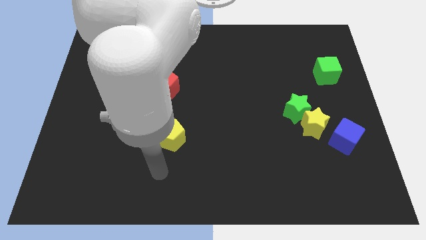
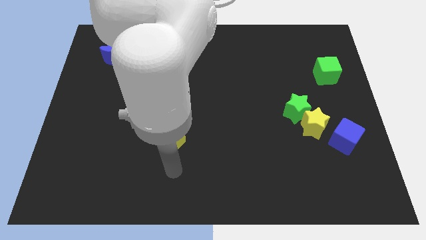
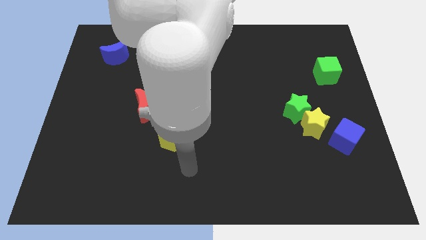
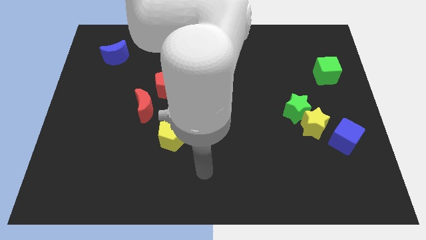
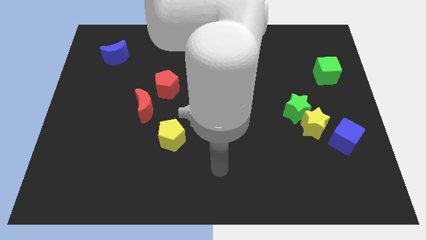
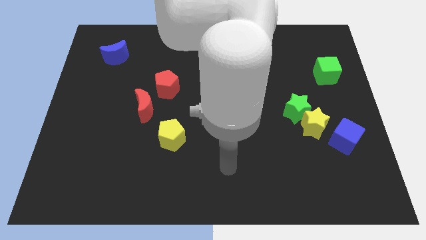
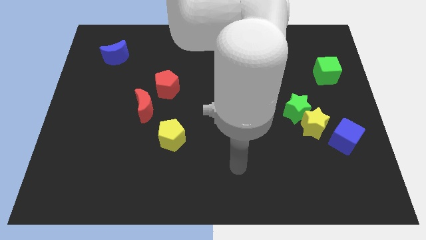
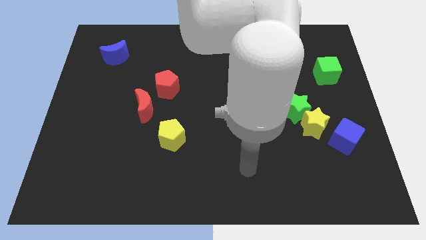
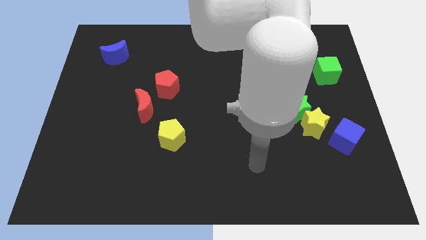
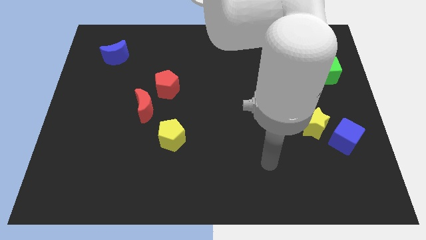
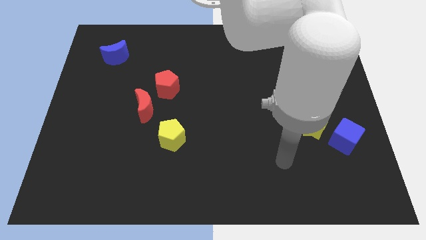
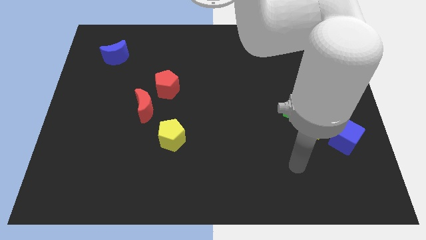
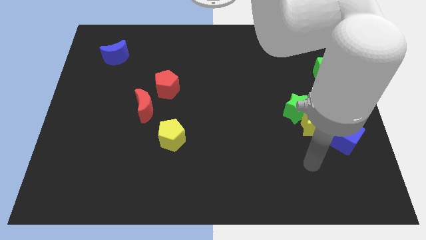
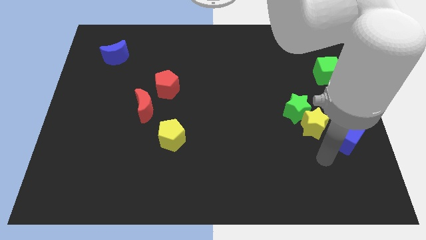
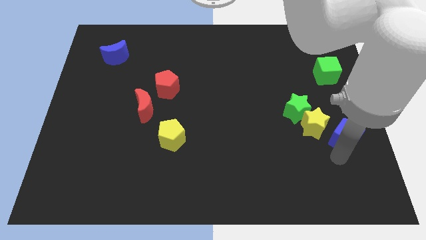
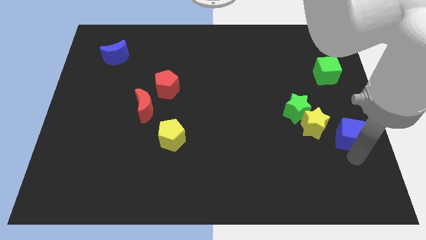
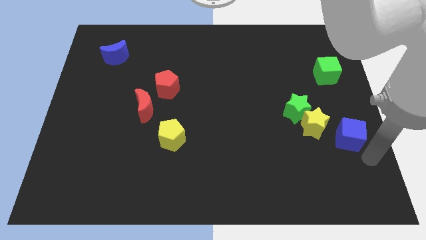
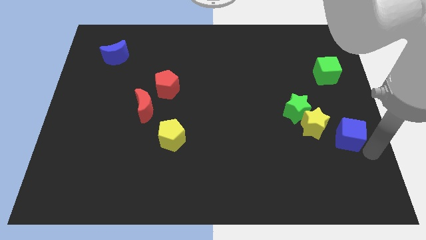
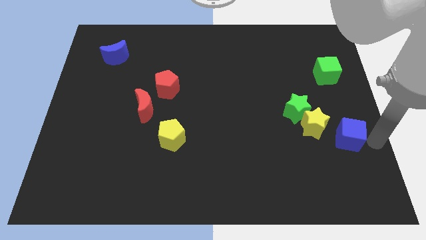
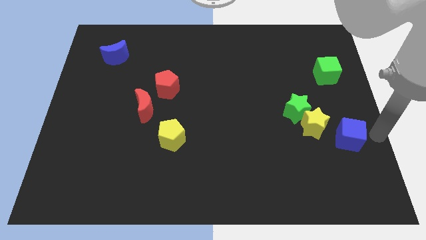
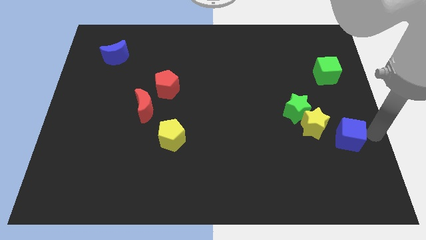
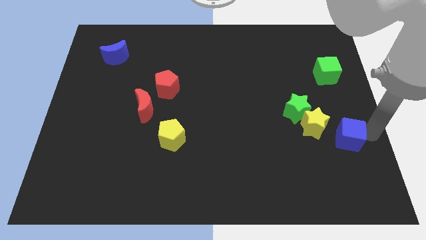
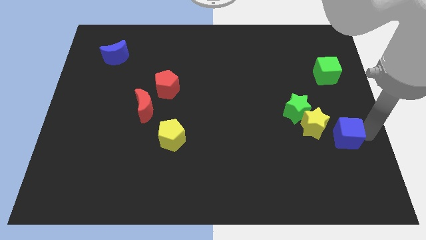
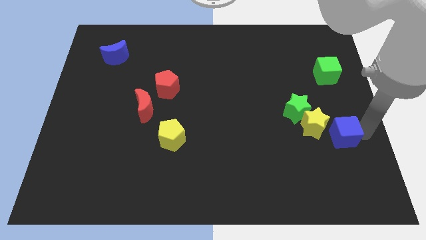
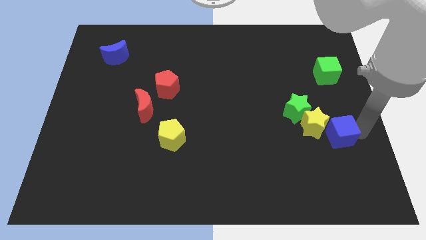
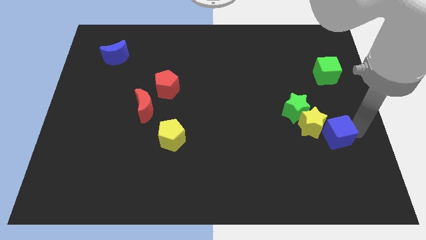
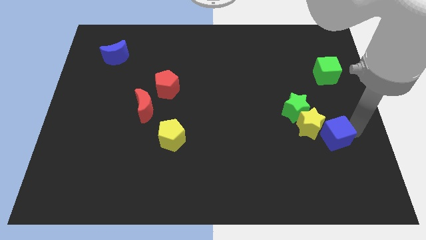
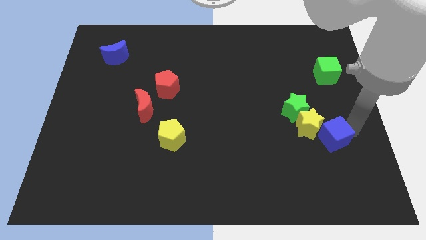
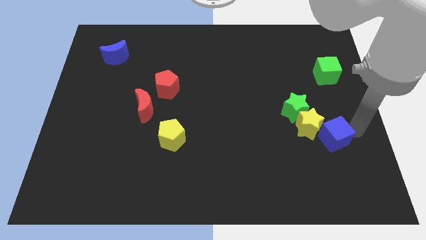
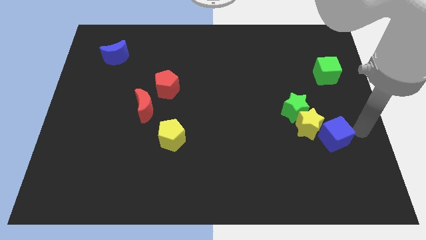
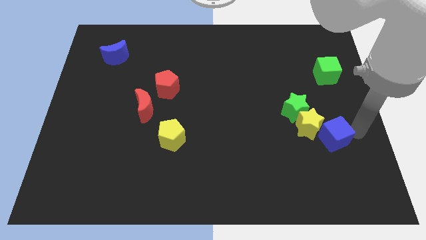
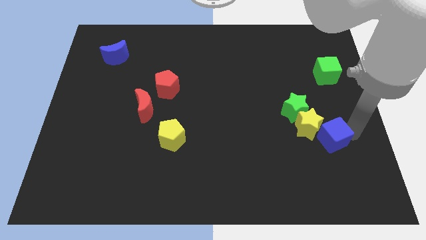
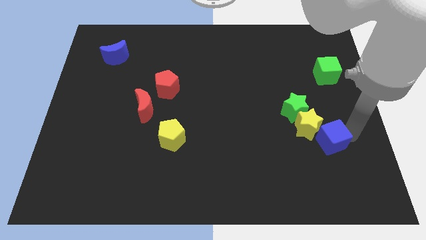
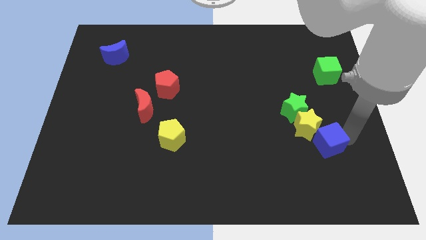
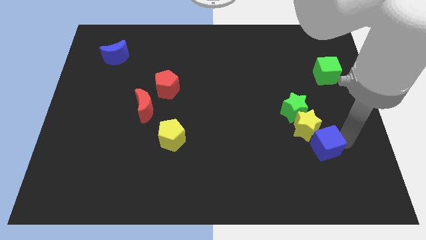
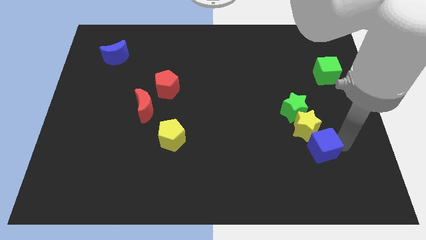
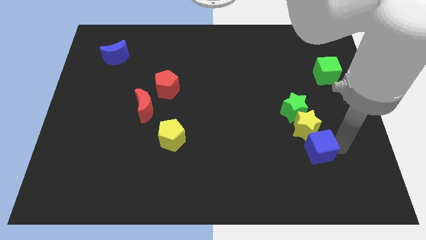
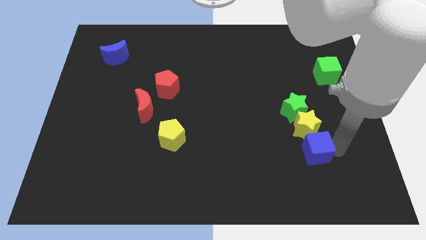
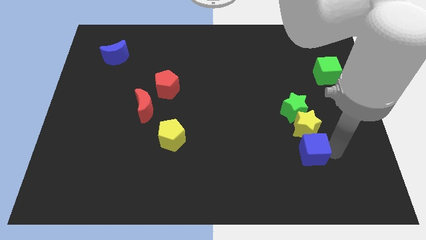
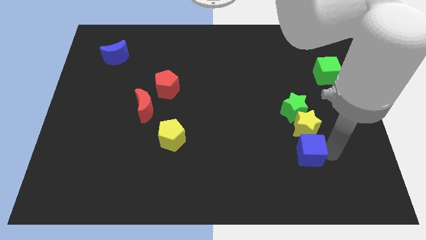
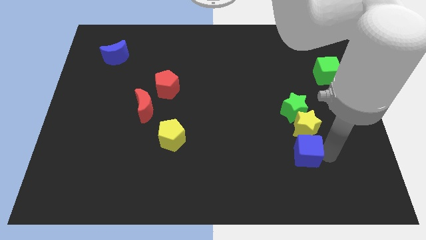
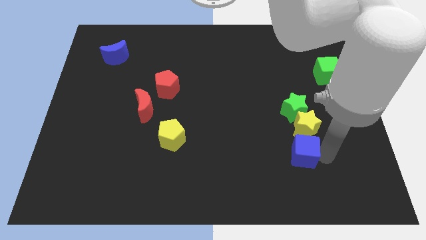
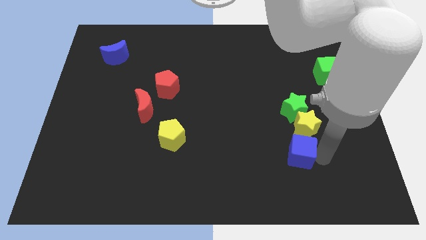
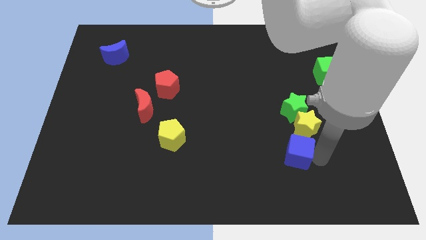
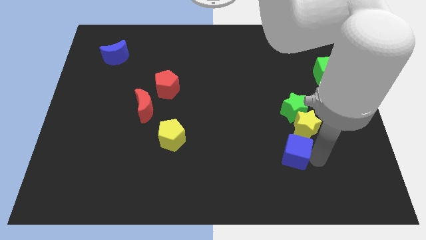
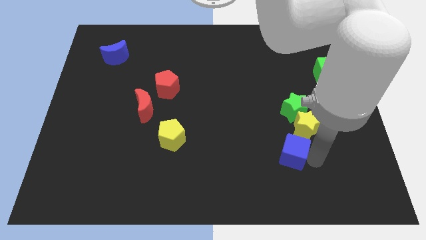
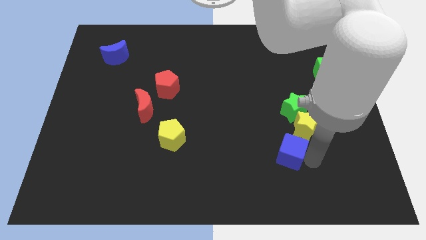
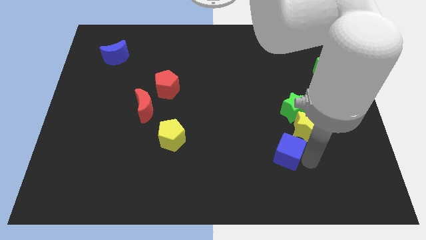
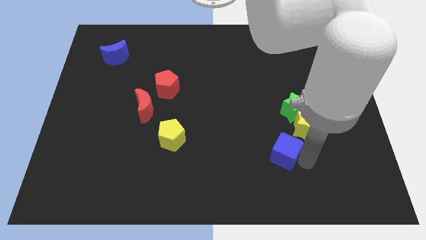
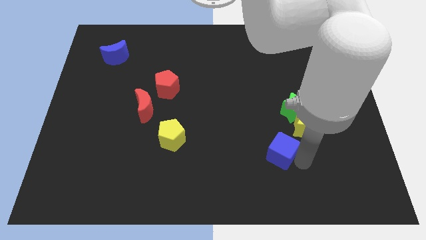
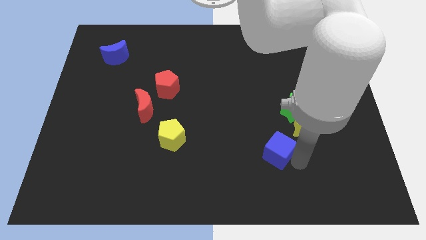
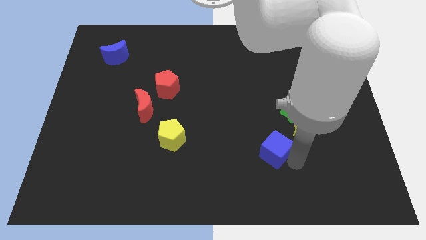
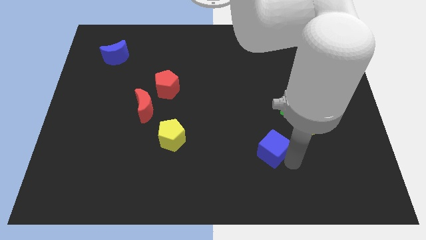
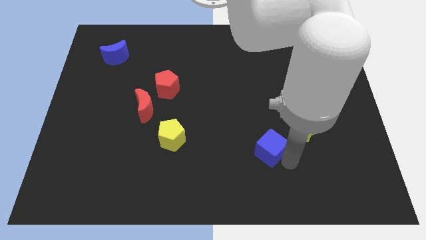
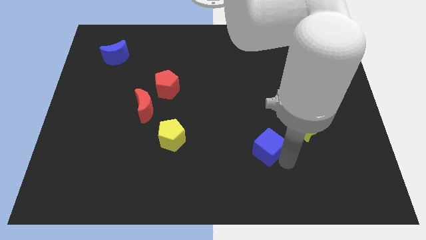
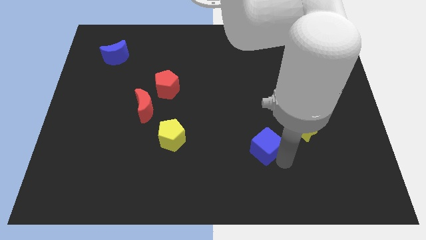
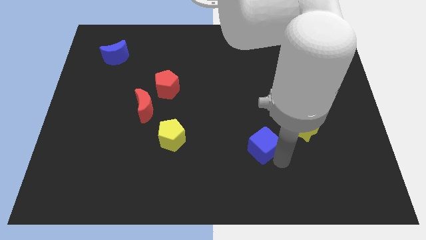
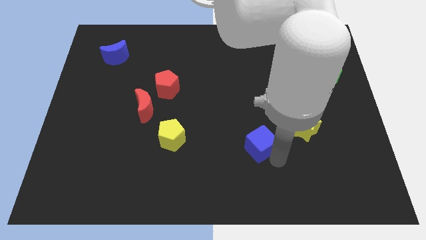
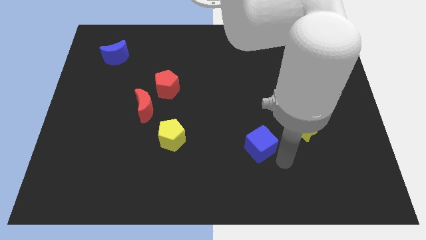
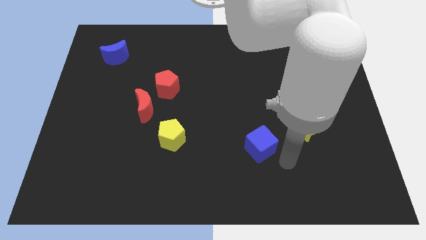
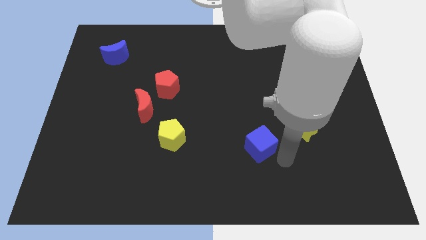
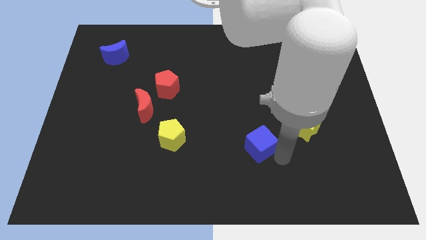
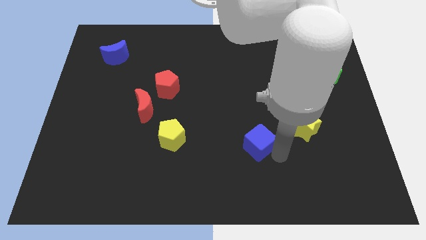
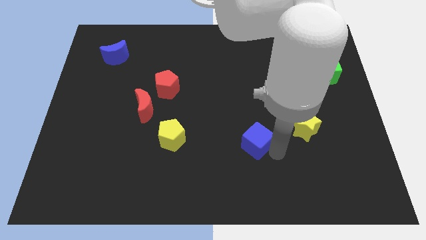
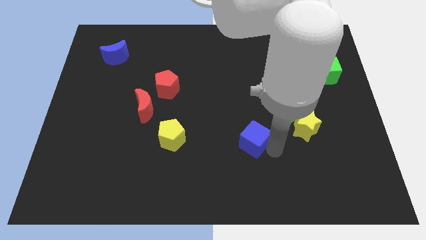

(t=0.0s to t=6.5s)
move the blue cube left

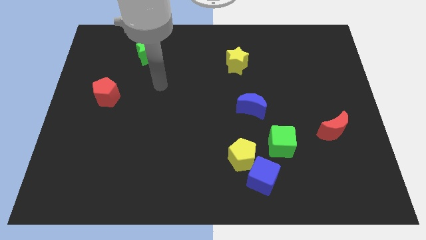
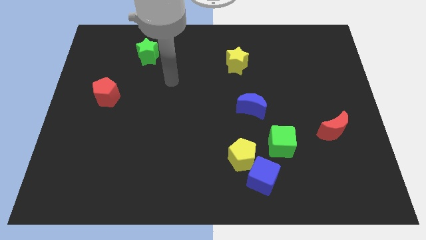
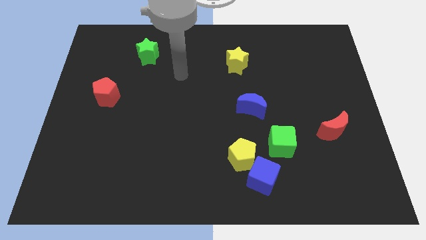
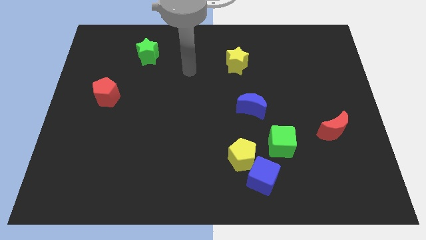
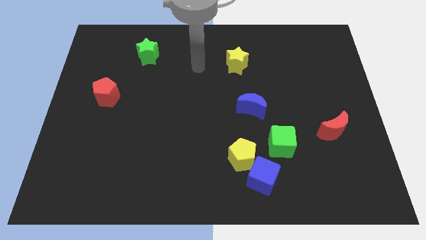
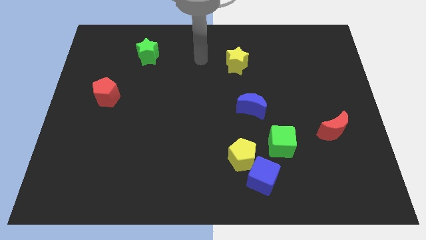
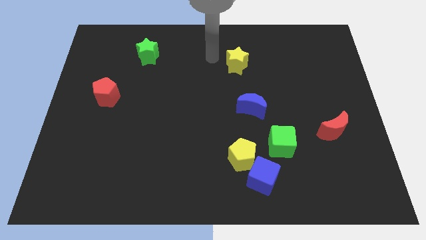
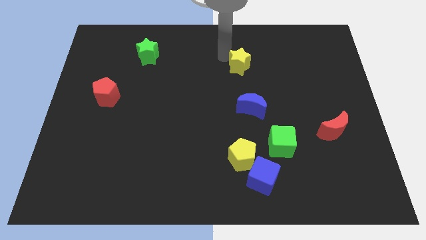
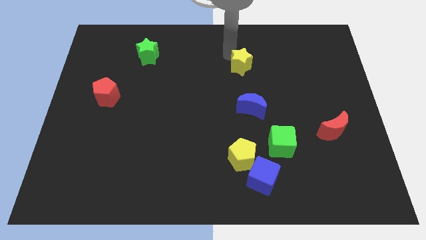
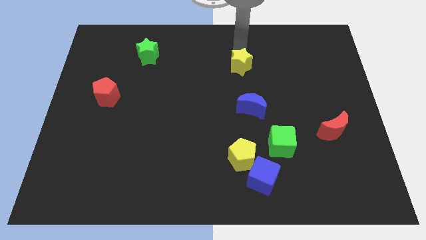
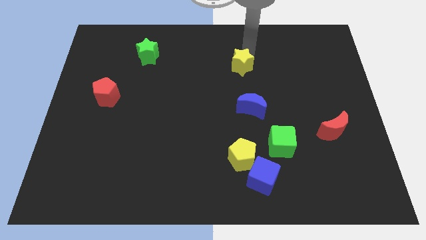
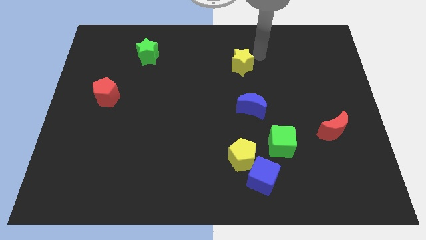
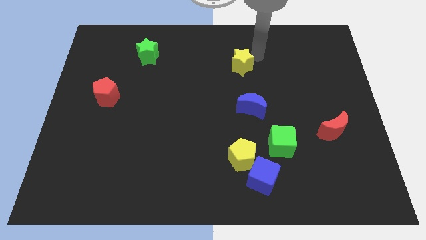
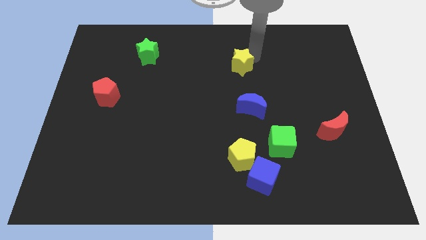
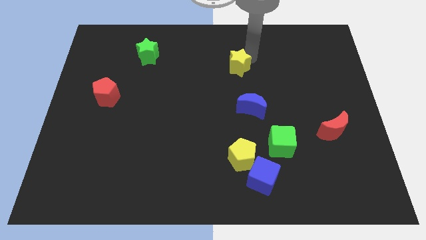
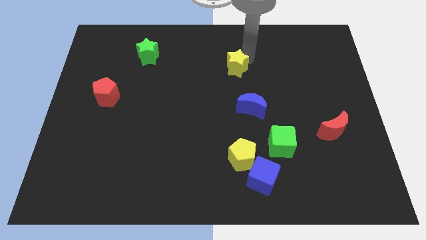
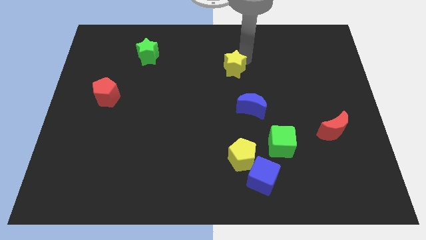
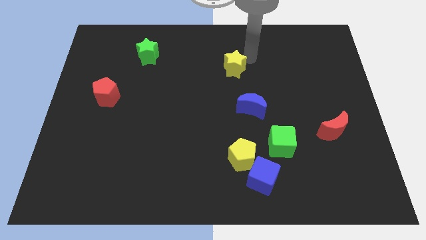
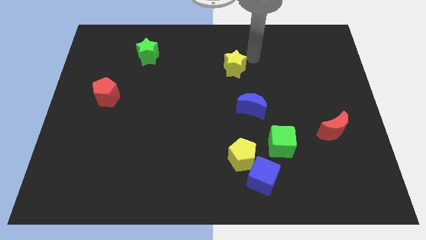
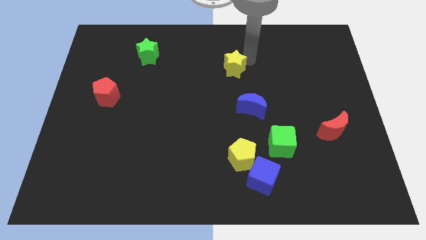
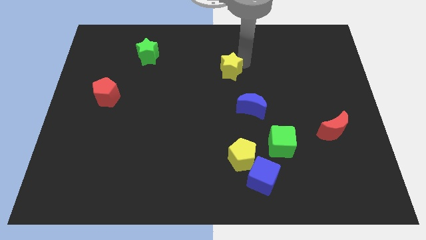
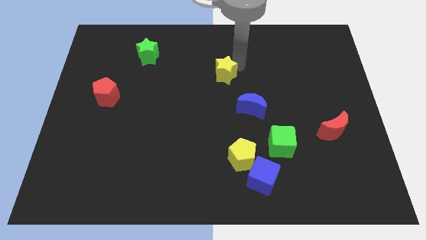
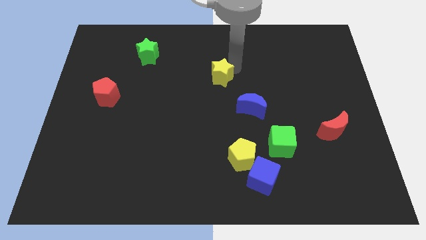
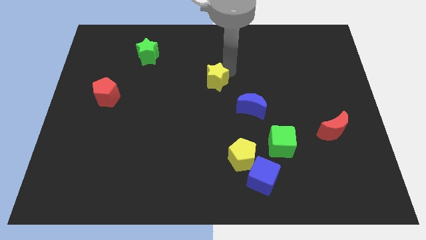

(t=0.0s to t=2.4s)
move the yellow star a little bit downwards and then to the left
